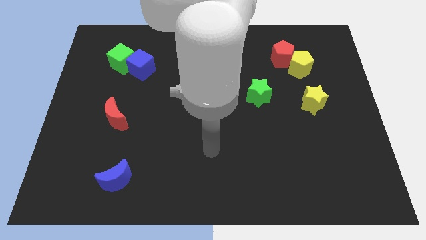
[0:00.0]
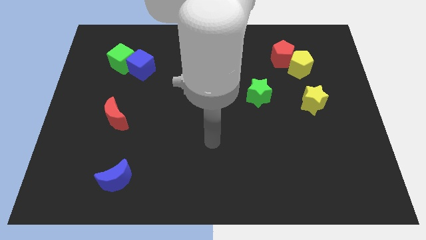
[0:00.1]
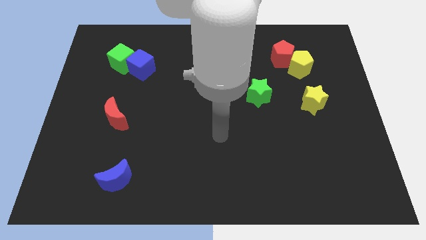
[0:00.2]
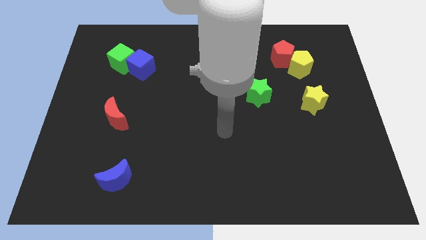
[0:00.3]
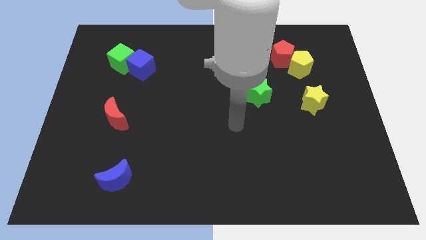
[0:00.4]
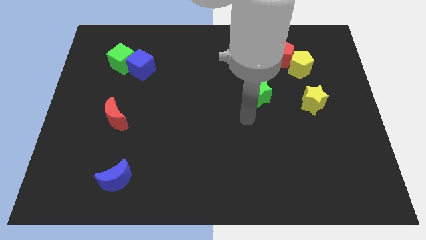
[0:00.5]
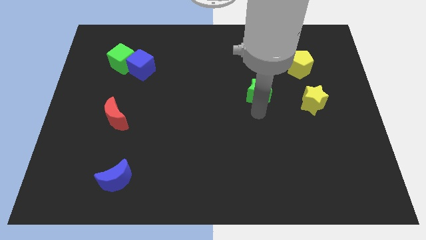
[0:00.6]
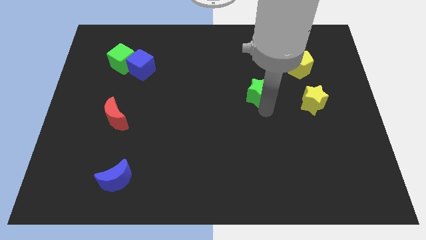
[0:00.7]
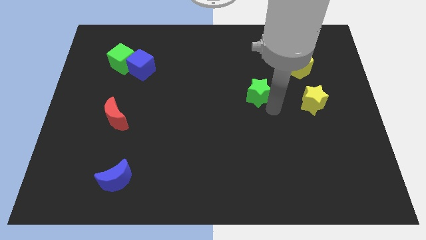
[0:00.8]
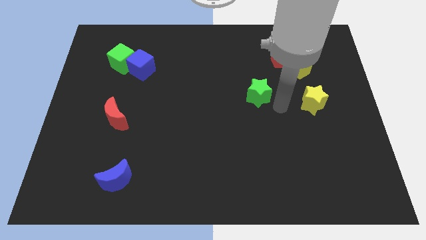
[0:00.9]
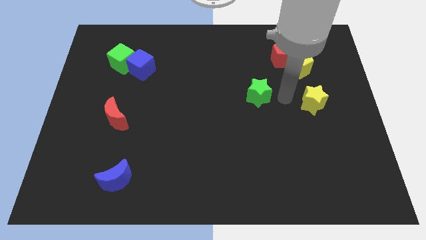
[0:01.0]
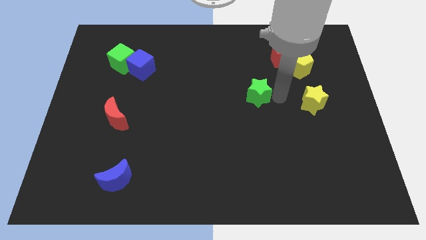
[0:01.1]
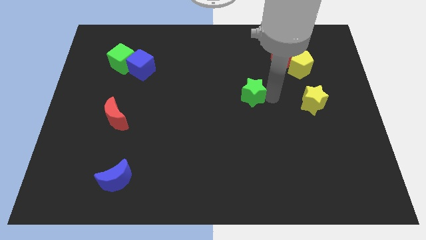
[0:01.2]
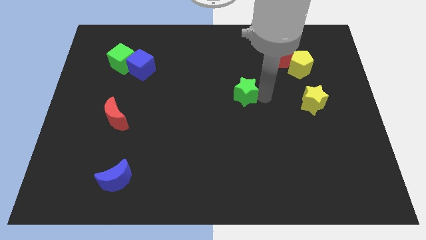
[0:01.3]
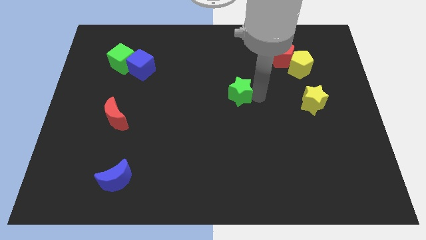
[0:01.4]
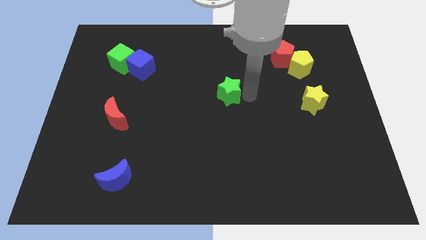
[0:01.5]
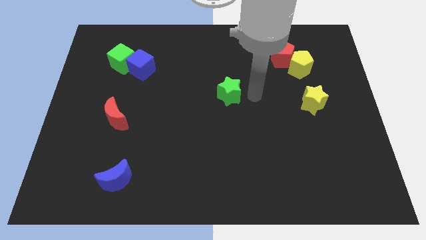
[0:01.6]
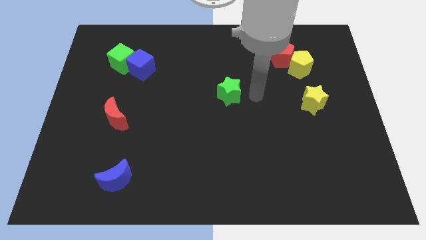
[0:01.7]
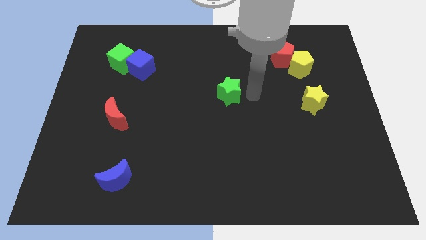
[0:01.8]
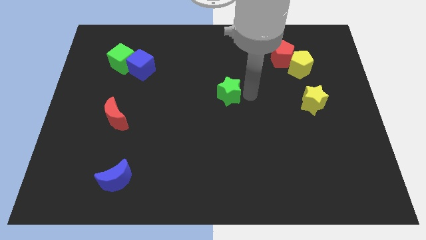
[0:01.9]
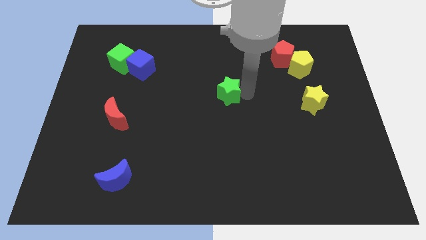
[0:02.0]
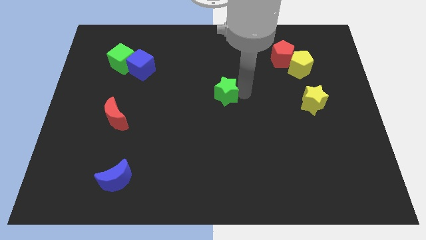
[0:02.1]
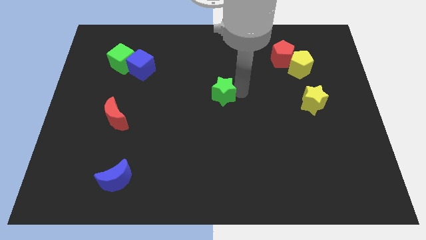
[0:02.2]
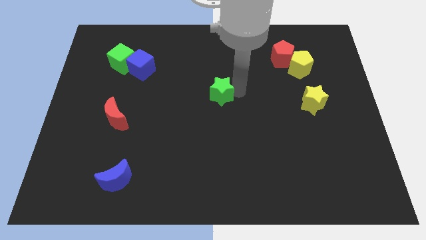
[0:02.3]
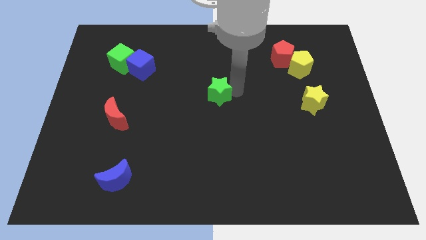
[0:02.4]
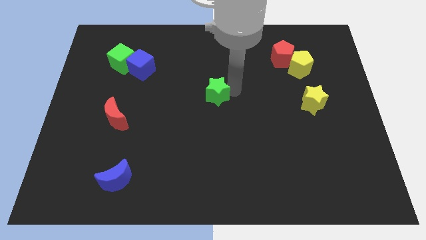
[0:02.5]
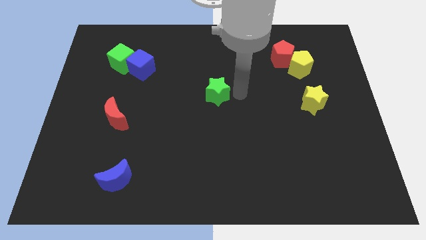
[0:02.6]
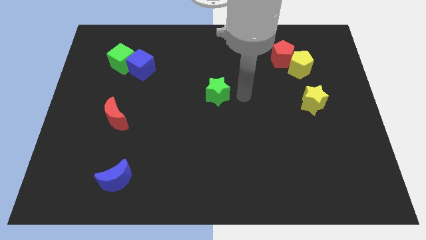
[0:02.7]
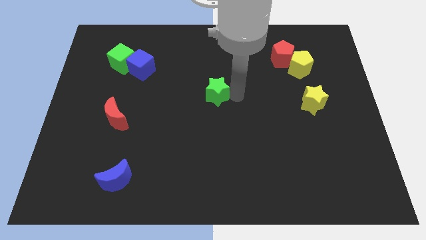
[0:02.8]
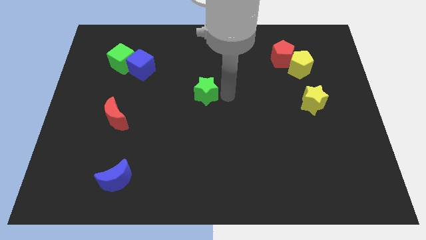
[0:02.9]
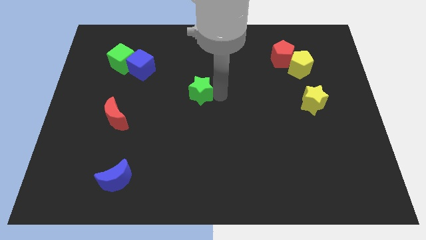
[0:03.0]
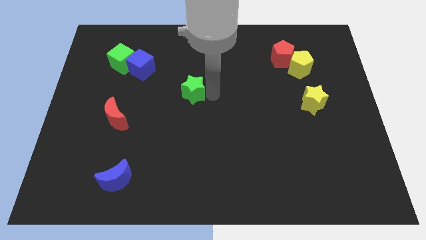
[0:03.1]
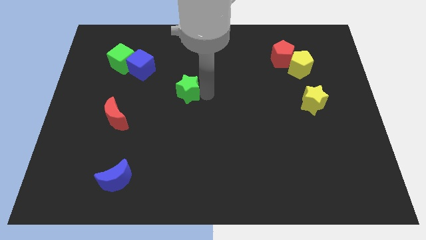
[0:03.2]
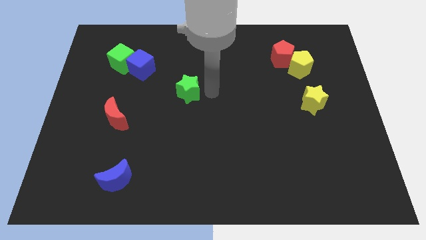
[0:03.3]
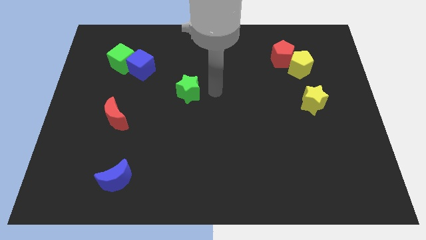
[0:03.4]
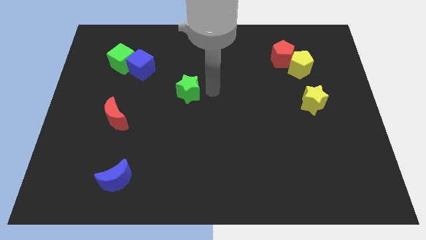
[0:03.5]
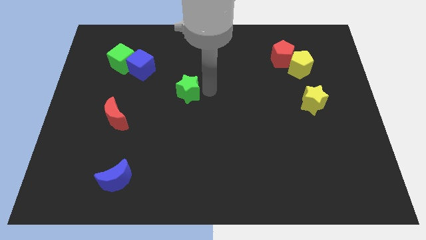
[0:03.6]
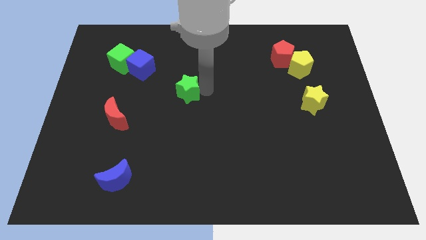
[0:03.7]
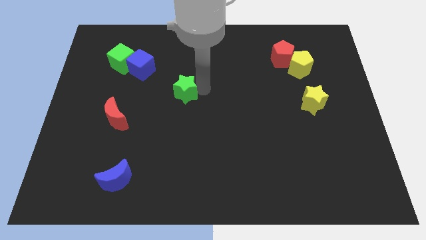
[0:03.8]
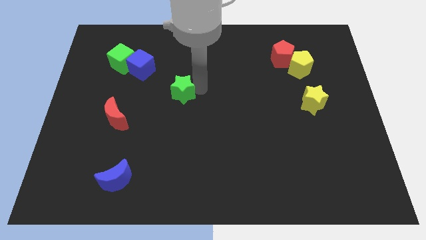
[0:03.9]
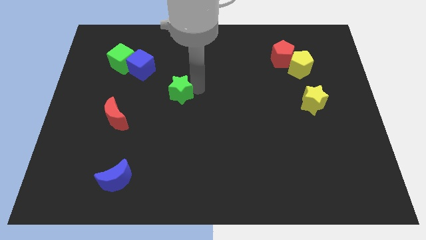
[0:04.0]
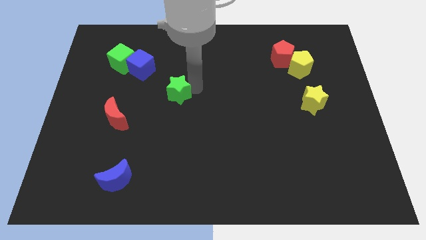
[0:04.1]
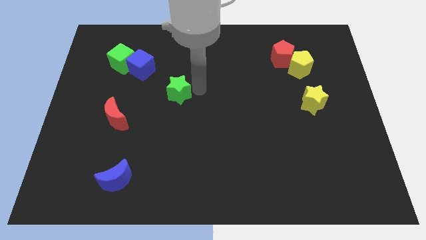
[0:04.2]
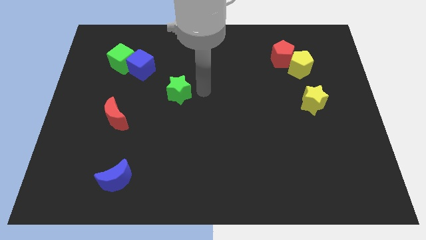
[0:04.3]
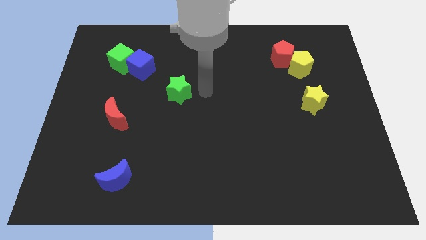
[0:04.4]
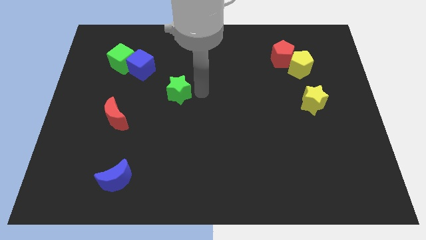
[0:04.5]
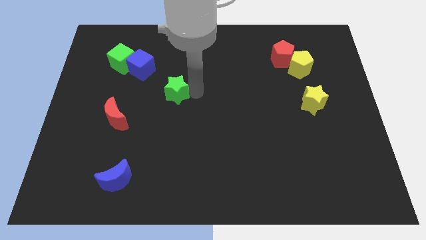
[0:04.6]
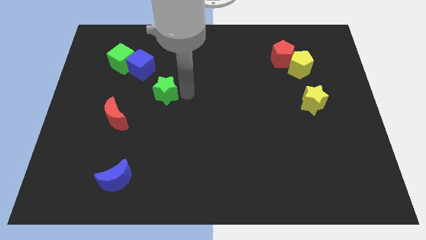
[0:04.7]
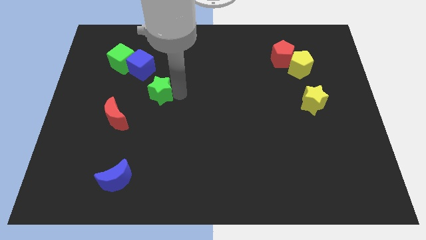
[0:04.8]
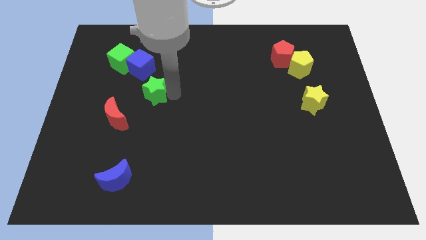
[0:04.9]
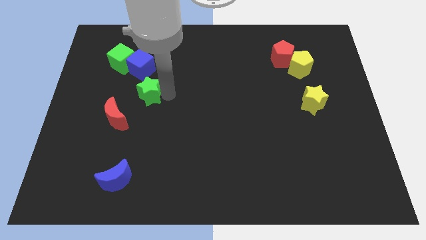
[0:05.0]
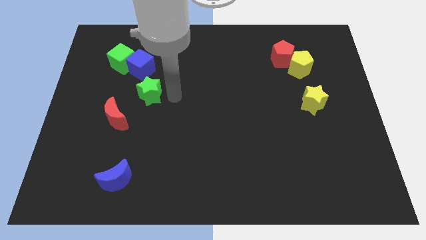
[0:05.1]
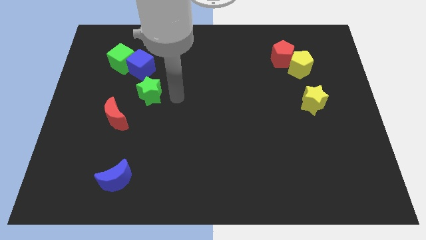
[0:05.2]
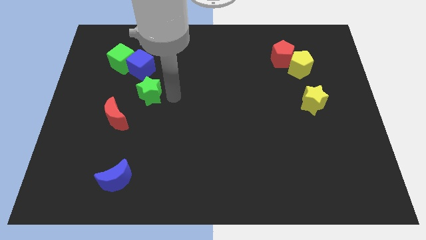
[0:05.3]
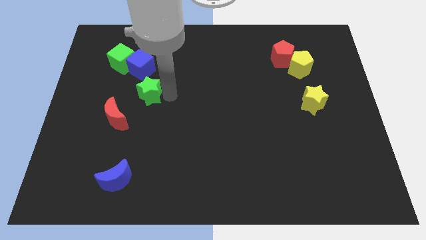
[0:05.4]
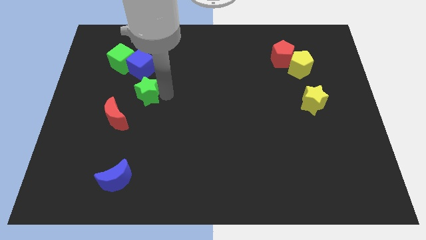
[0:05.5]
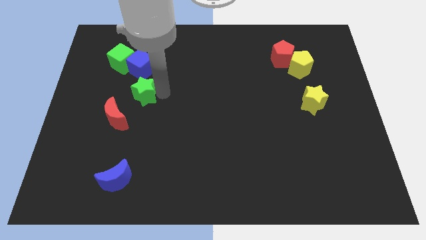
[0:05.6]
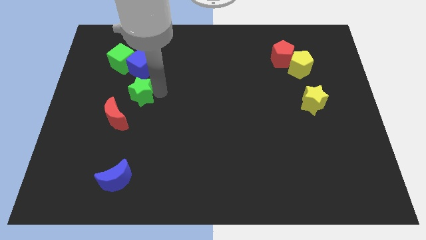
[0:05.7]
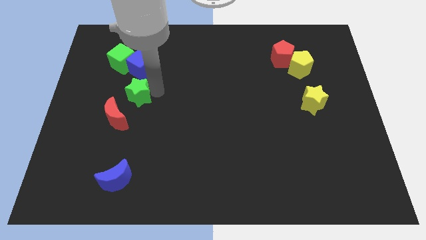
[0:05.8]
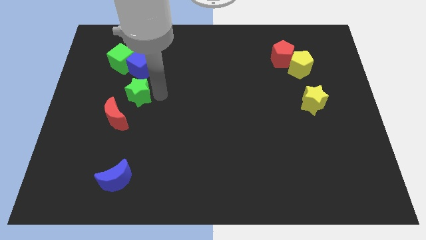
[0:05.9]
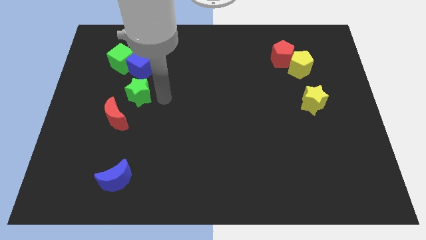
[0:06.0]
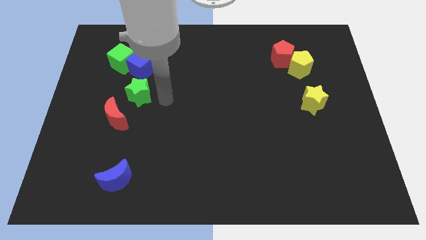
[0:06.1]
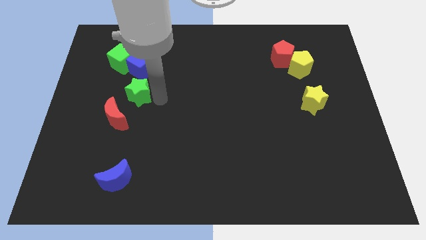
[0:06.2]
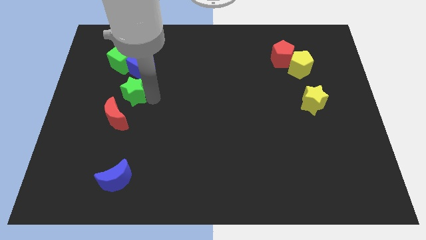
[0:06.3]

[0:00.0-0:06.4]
move the green star to the bottom side of the green cube

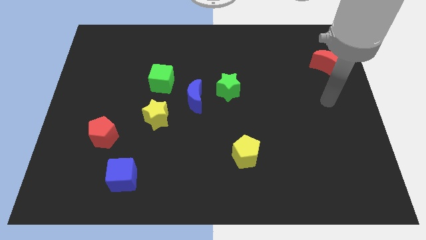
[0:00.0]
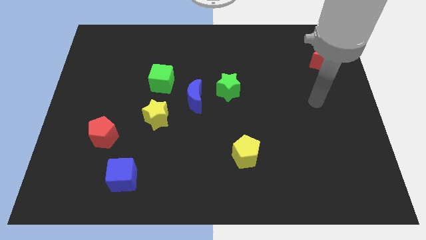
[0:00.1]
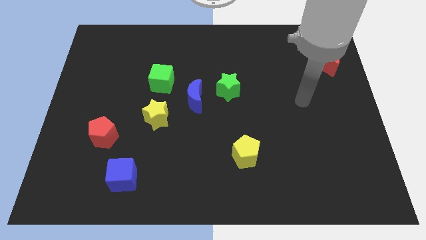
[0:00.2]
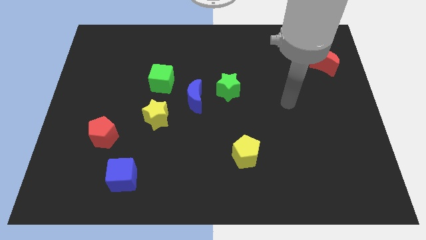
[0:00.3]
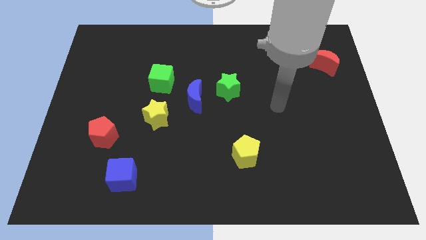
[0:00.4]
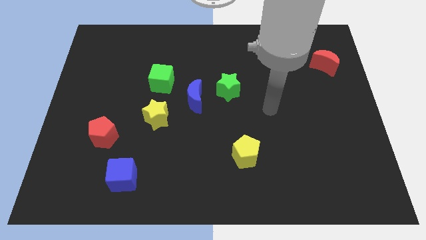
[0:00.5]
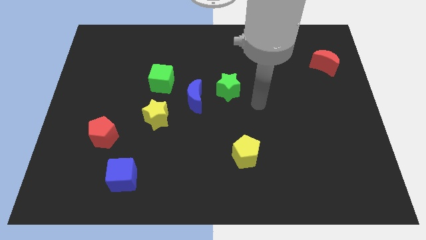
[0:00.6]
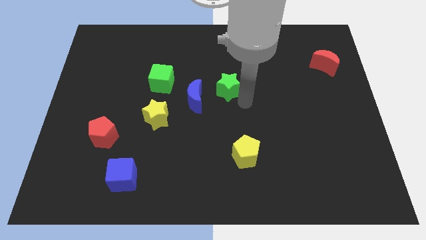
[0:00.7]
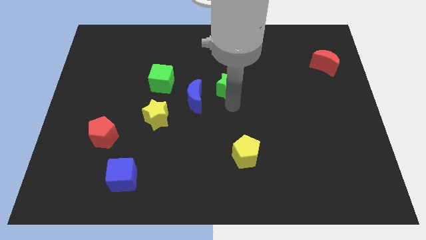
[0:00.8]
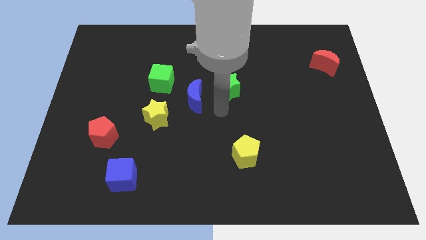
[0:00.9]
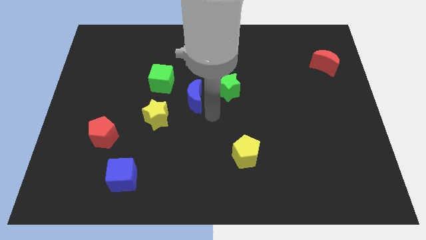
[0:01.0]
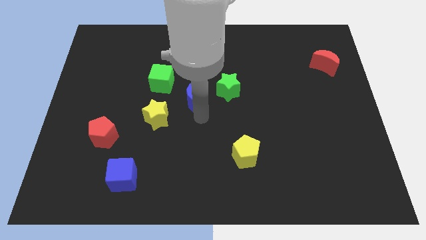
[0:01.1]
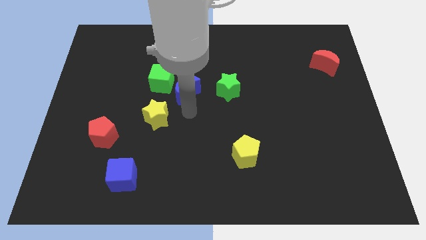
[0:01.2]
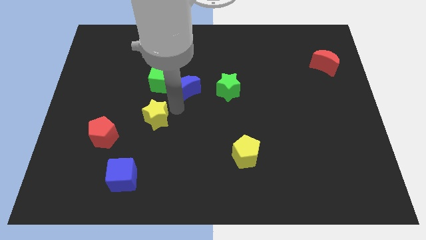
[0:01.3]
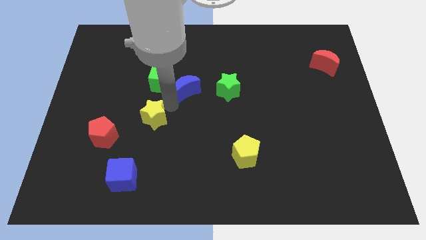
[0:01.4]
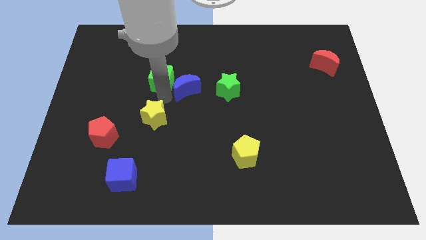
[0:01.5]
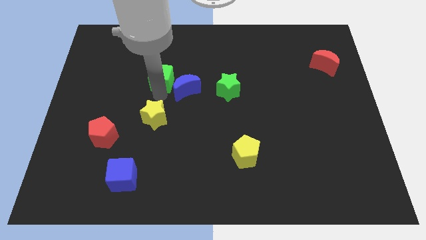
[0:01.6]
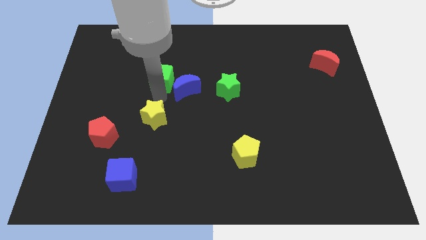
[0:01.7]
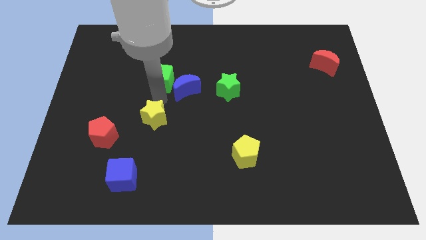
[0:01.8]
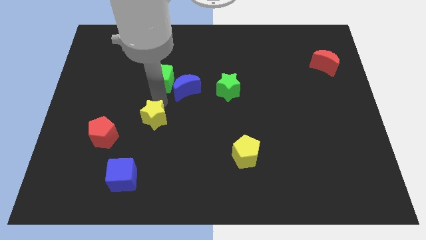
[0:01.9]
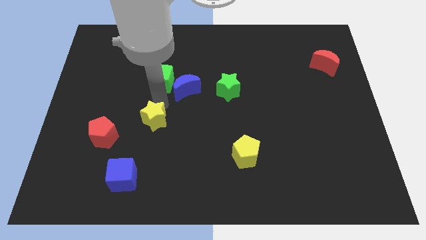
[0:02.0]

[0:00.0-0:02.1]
push the yellow star right of the red pentagon
